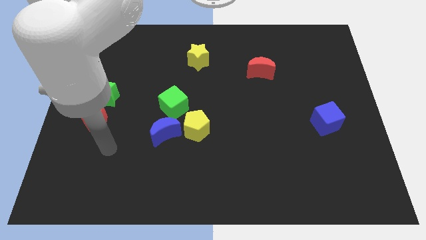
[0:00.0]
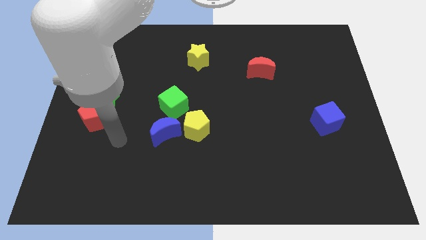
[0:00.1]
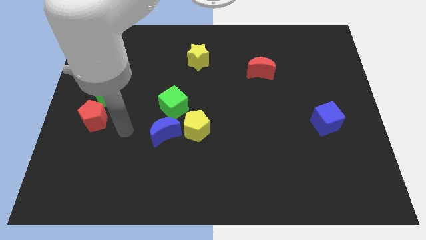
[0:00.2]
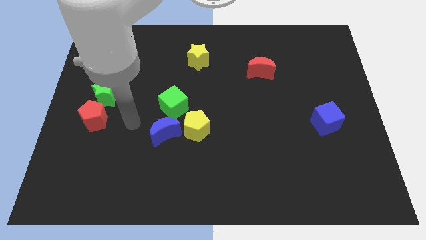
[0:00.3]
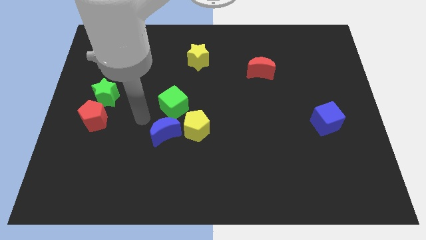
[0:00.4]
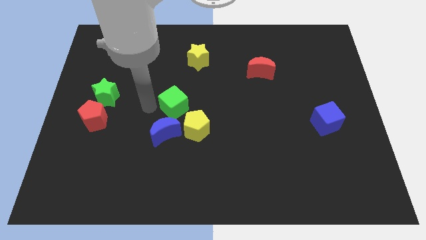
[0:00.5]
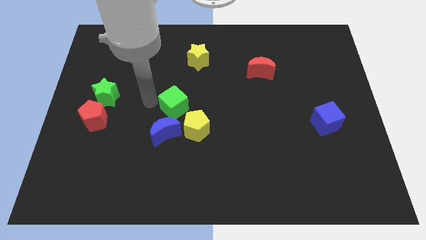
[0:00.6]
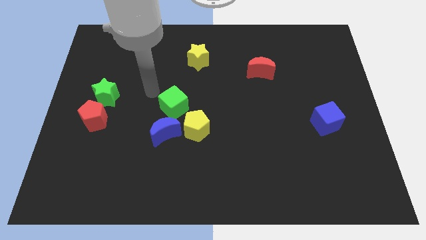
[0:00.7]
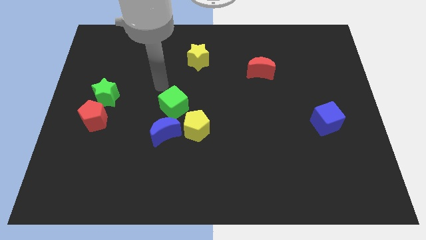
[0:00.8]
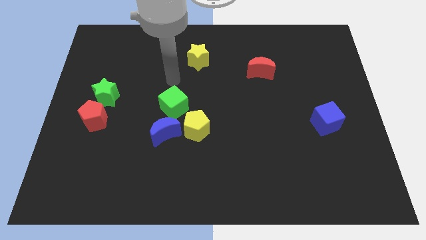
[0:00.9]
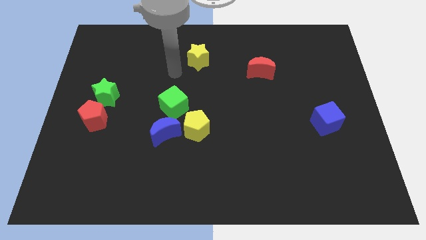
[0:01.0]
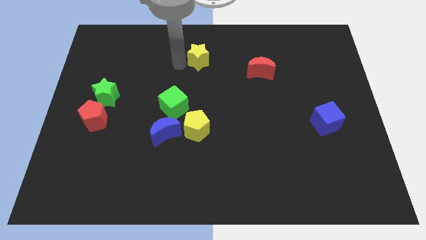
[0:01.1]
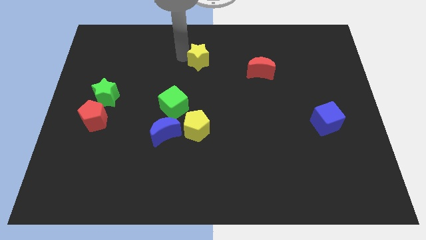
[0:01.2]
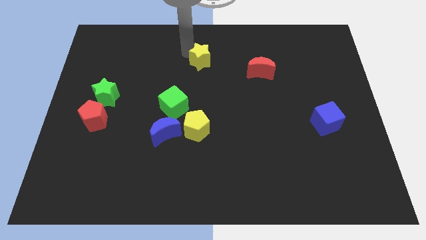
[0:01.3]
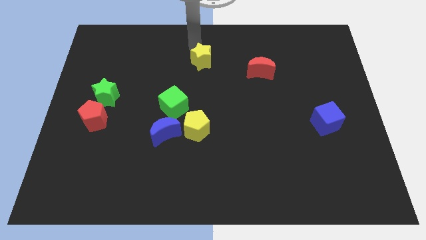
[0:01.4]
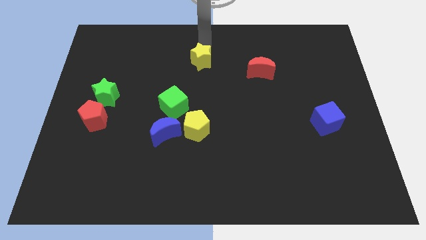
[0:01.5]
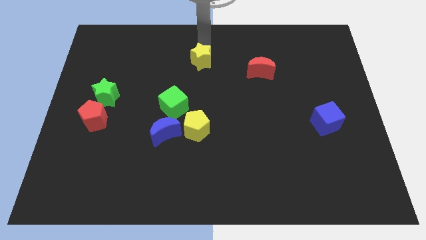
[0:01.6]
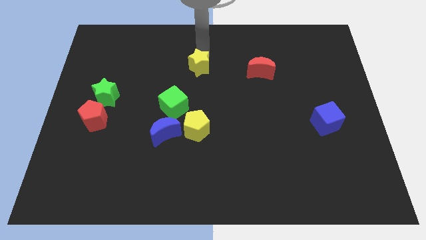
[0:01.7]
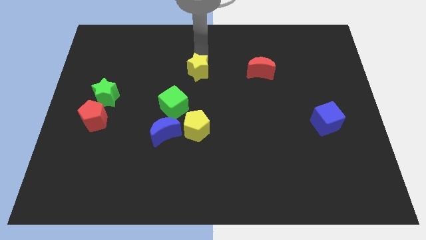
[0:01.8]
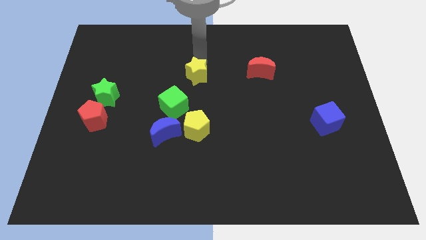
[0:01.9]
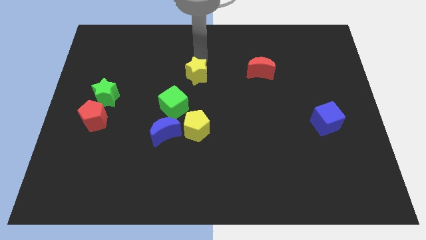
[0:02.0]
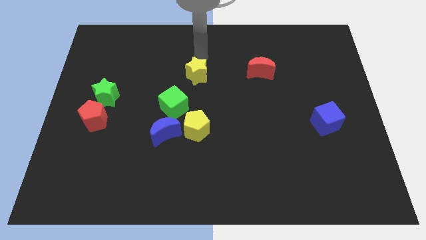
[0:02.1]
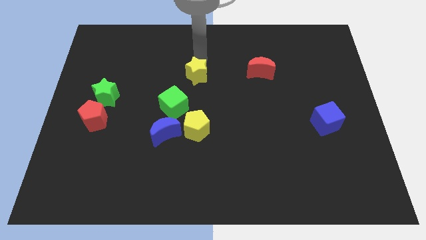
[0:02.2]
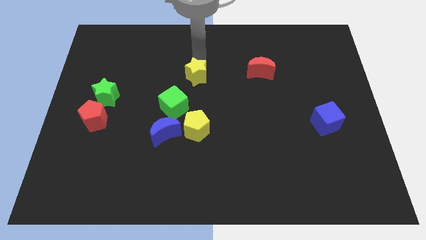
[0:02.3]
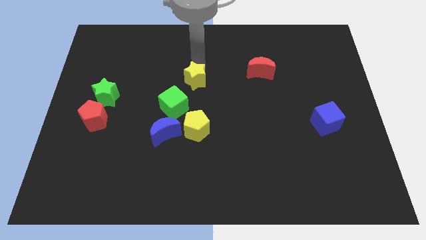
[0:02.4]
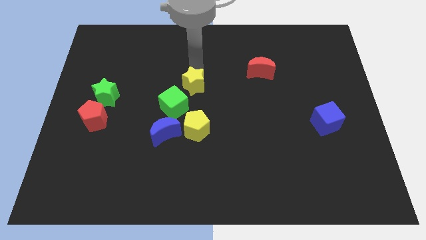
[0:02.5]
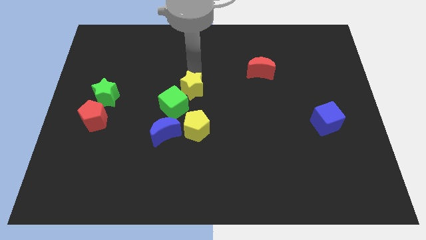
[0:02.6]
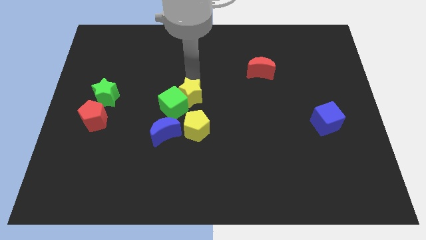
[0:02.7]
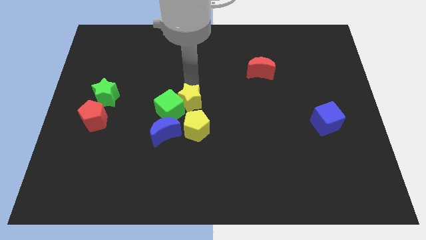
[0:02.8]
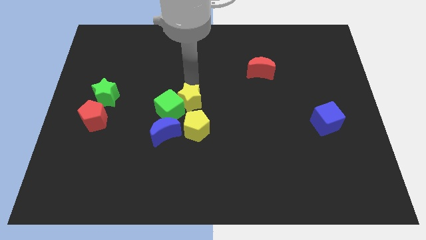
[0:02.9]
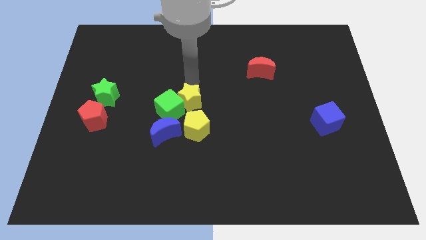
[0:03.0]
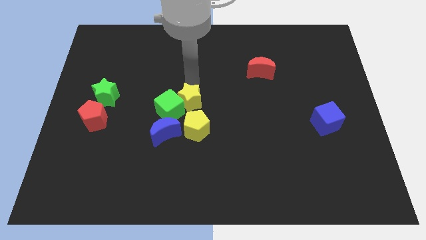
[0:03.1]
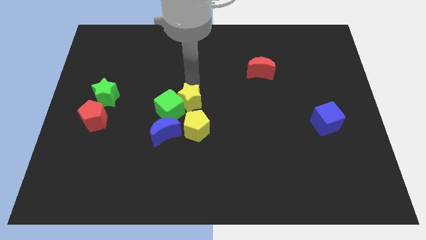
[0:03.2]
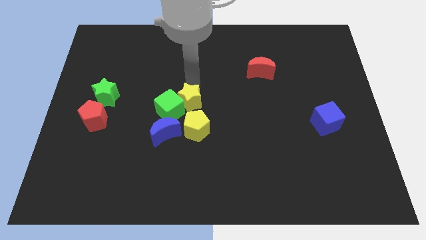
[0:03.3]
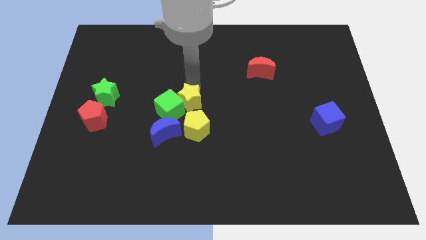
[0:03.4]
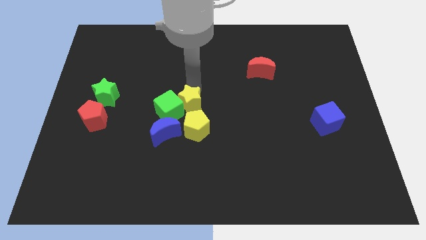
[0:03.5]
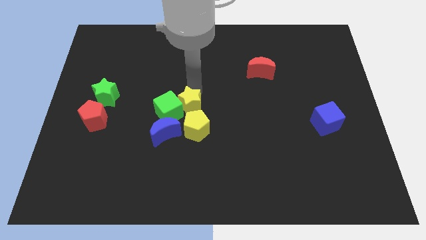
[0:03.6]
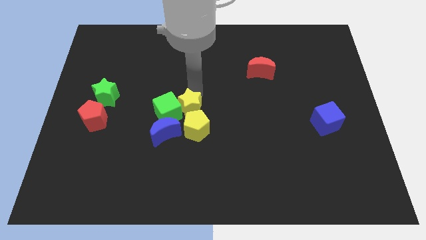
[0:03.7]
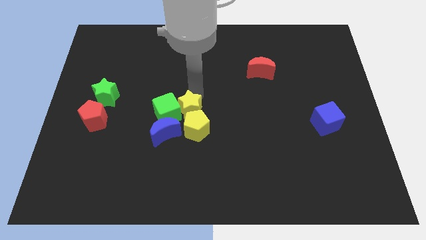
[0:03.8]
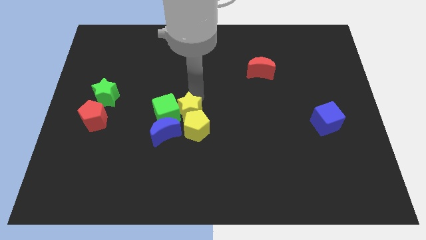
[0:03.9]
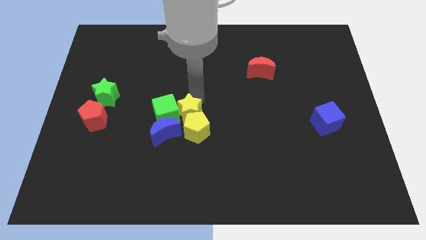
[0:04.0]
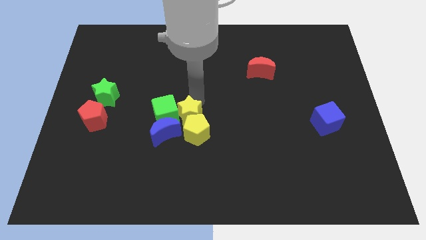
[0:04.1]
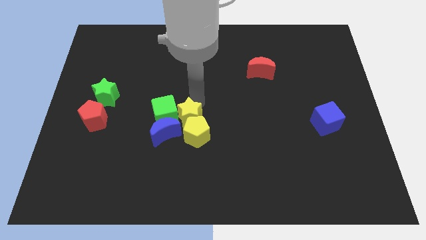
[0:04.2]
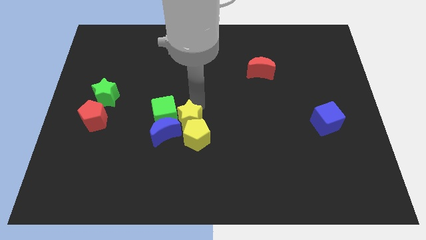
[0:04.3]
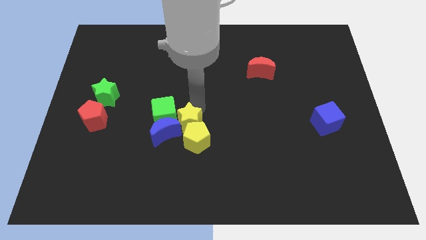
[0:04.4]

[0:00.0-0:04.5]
push the yellow star to the blue moon

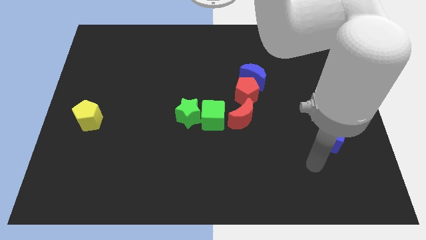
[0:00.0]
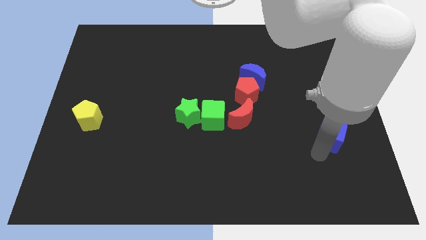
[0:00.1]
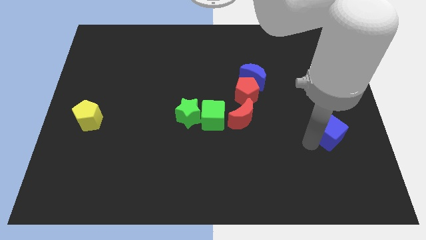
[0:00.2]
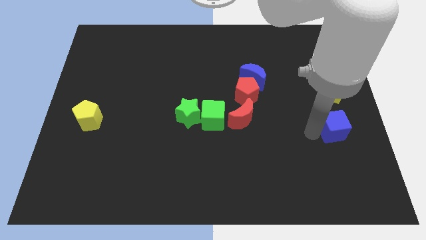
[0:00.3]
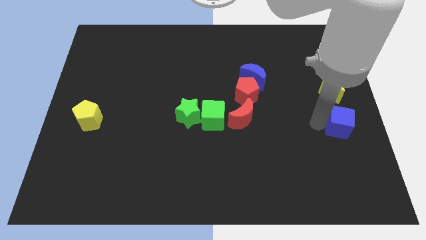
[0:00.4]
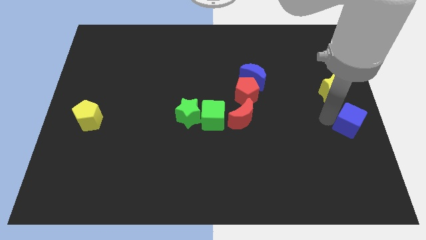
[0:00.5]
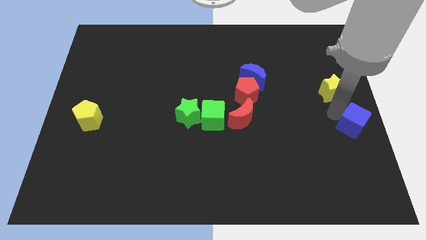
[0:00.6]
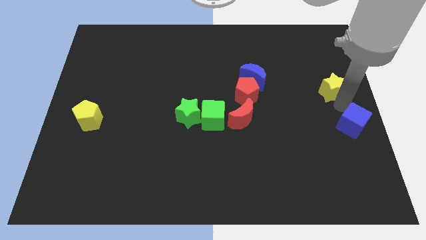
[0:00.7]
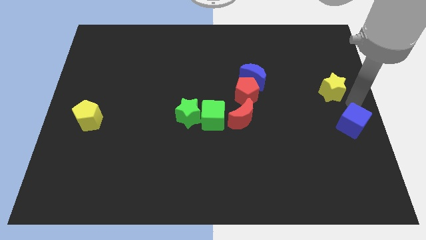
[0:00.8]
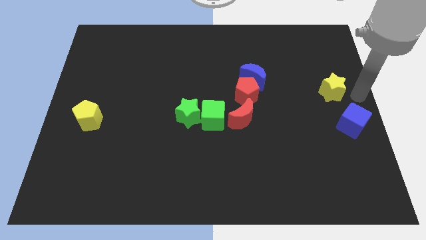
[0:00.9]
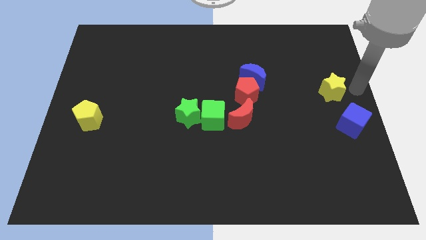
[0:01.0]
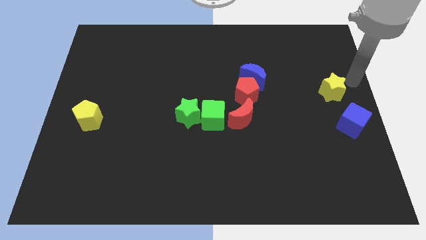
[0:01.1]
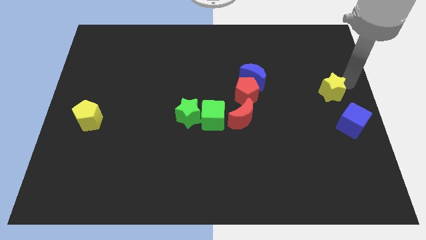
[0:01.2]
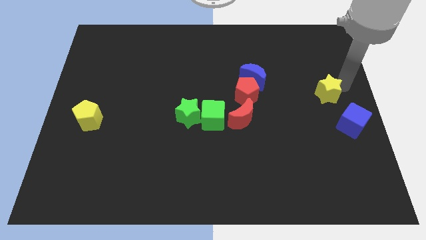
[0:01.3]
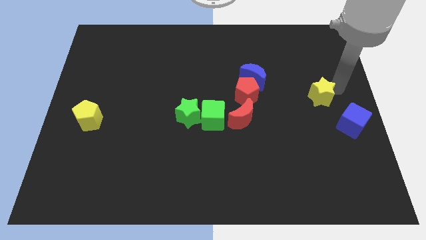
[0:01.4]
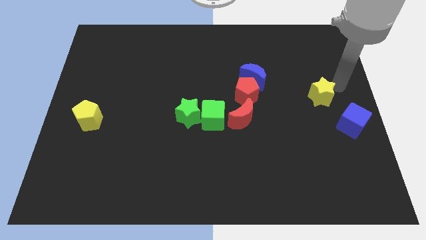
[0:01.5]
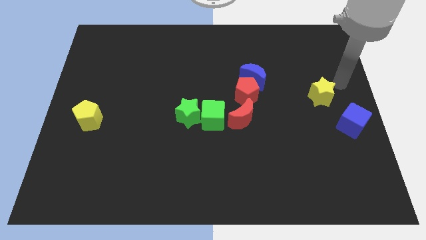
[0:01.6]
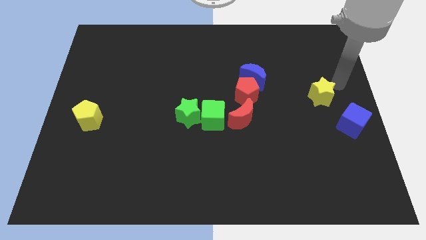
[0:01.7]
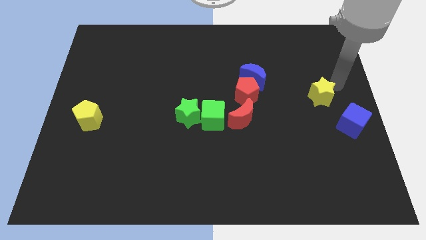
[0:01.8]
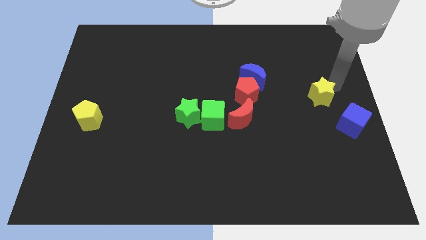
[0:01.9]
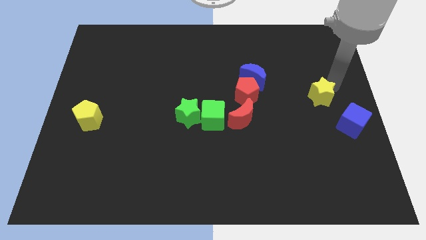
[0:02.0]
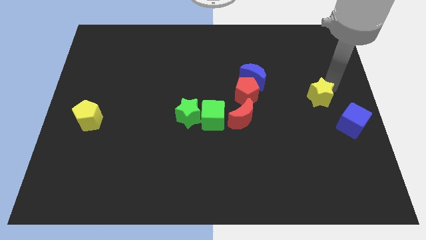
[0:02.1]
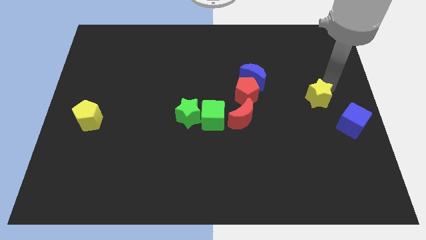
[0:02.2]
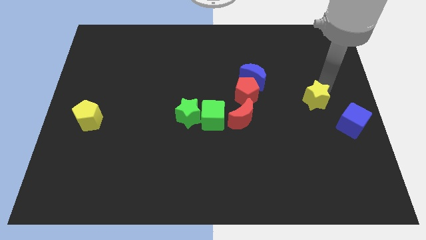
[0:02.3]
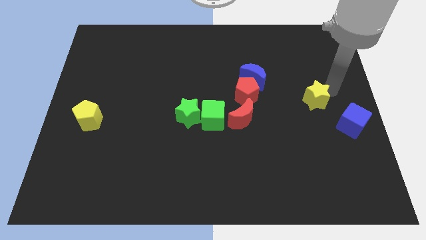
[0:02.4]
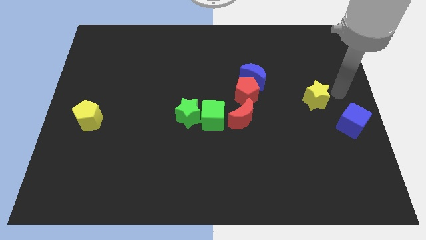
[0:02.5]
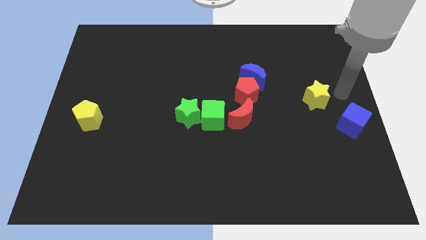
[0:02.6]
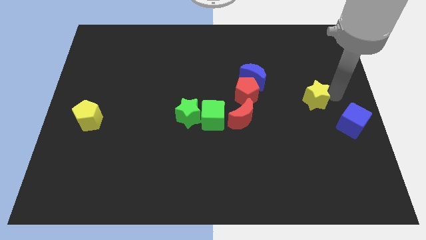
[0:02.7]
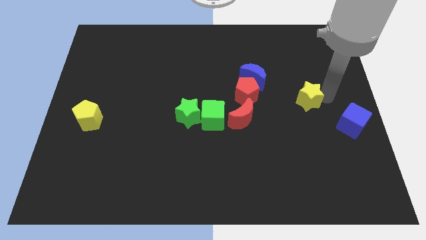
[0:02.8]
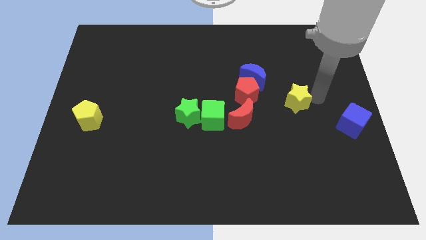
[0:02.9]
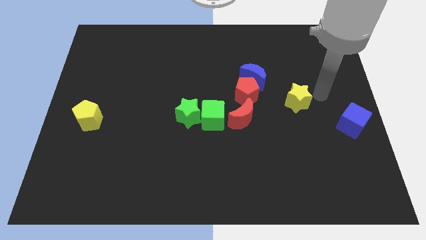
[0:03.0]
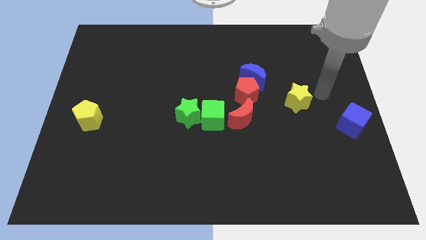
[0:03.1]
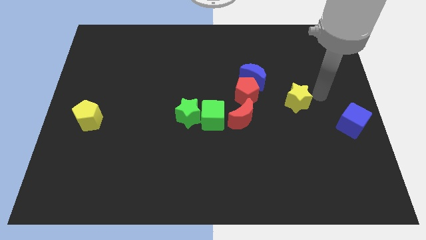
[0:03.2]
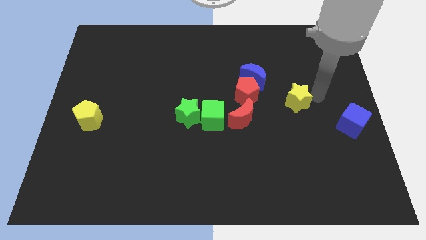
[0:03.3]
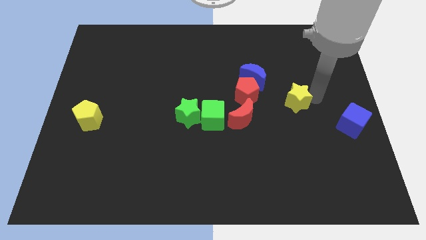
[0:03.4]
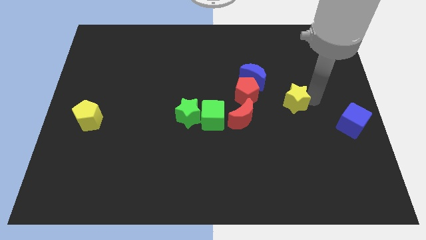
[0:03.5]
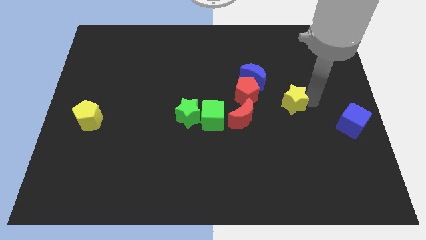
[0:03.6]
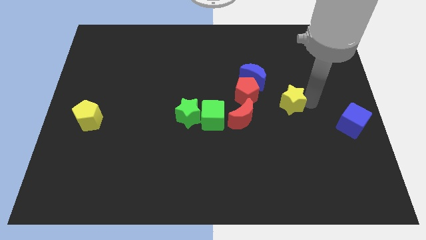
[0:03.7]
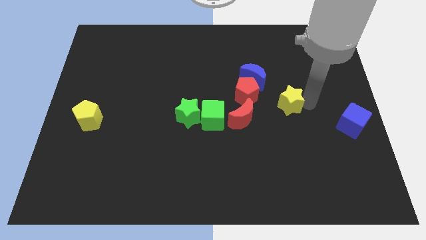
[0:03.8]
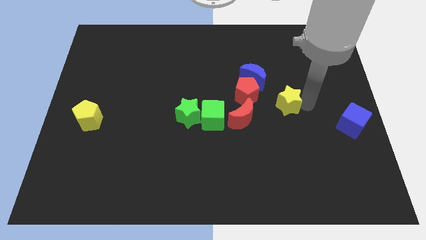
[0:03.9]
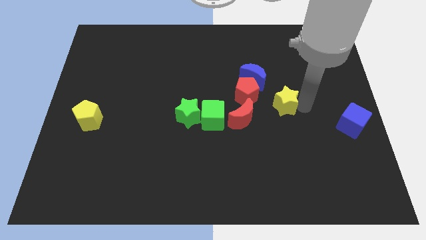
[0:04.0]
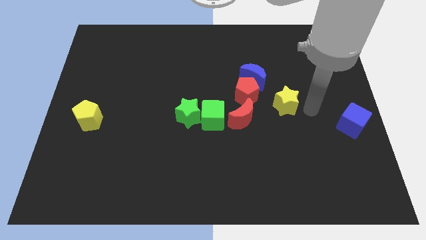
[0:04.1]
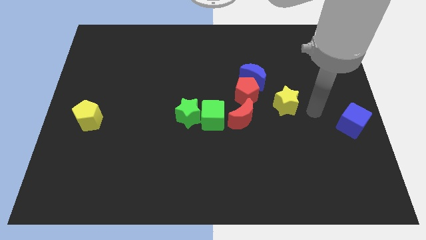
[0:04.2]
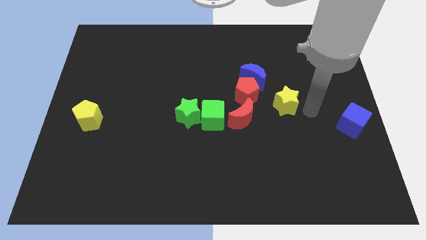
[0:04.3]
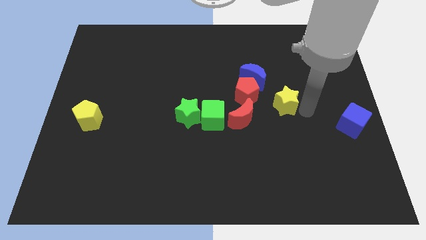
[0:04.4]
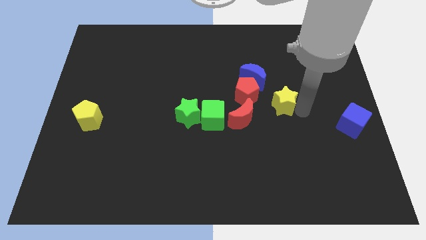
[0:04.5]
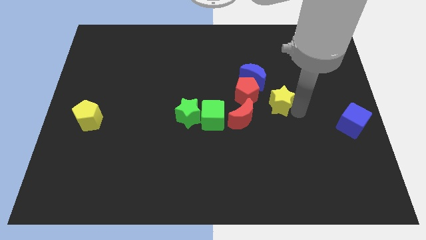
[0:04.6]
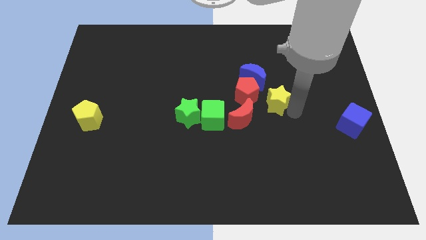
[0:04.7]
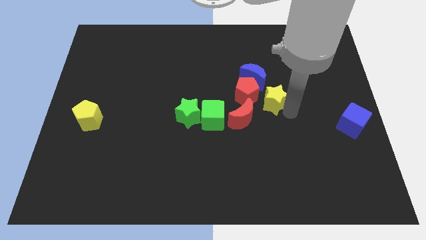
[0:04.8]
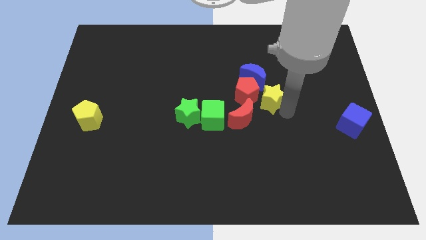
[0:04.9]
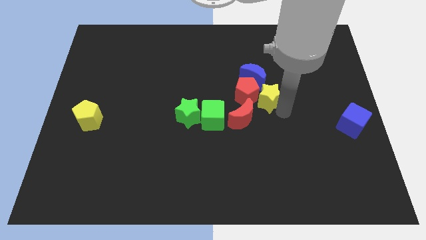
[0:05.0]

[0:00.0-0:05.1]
move the yellow star towards the red pentagon
